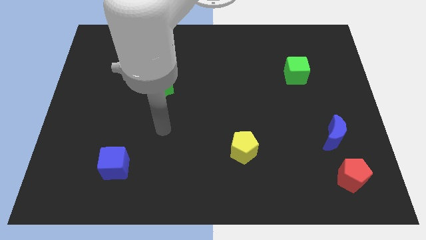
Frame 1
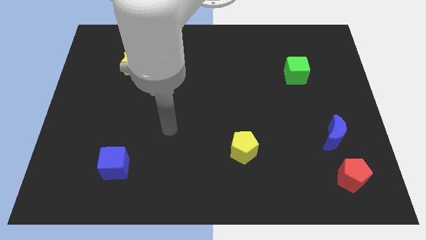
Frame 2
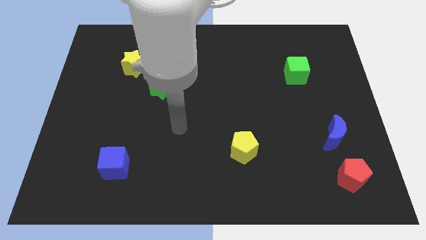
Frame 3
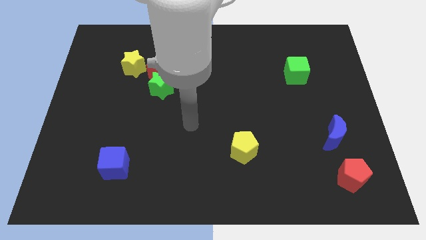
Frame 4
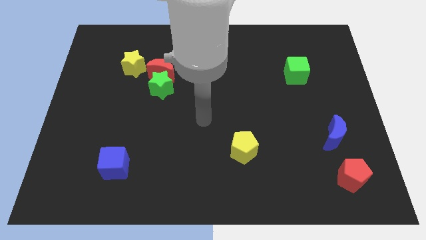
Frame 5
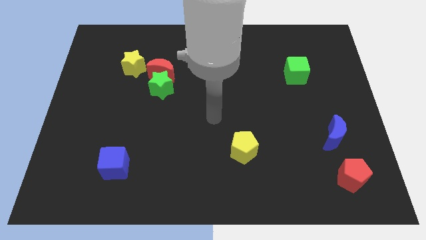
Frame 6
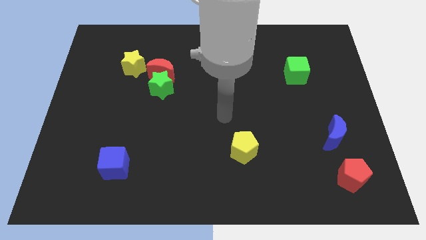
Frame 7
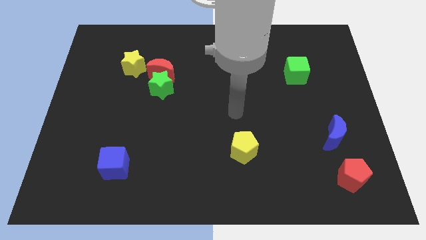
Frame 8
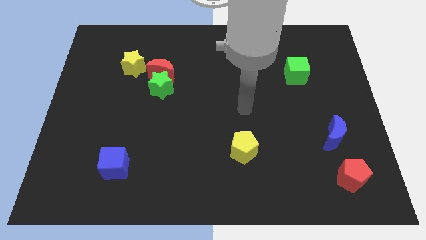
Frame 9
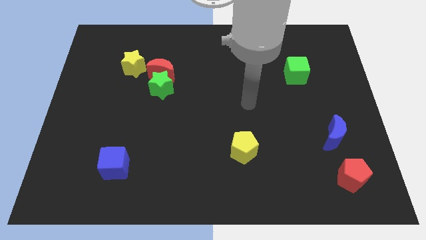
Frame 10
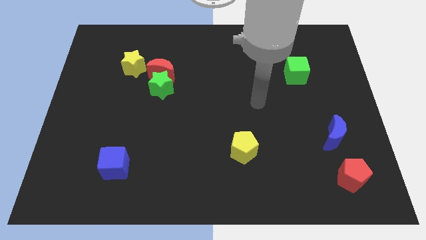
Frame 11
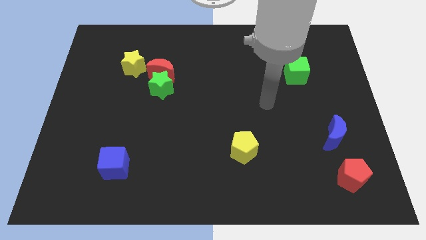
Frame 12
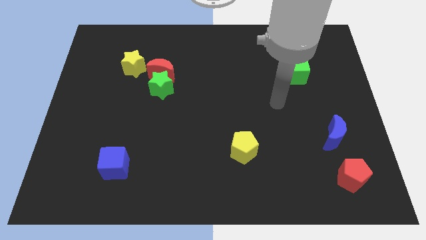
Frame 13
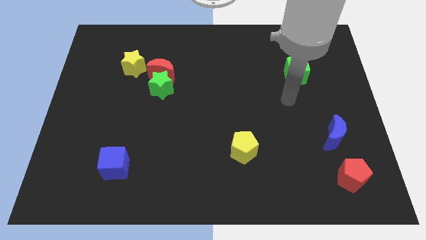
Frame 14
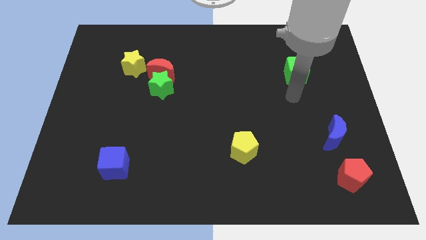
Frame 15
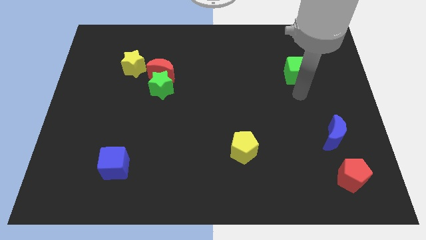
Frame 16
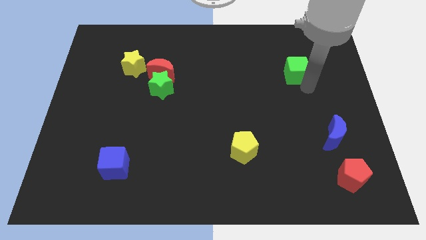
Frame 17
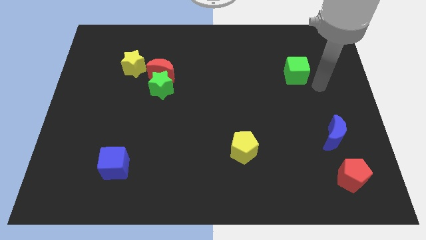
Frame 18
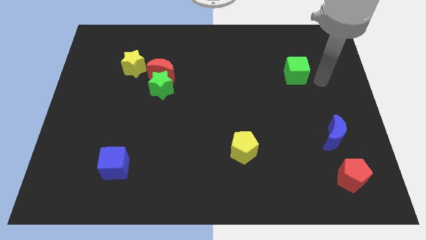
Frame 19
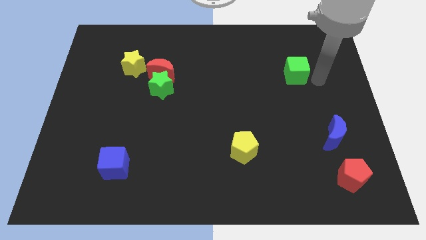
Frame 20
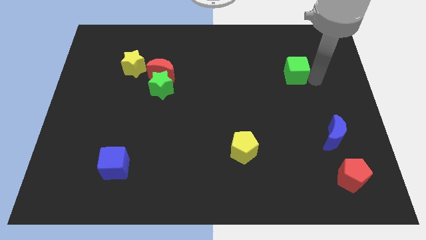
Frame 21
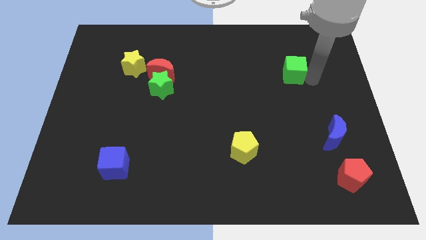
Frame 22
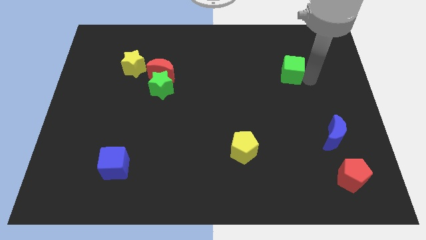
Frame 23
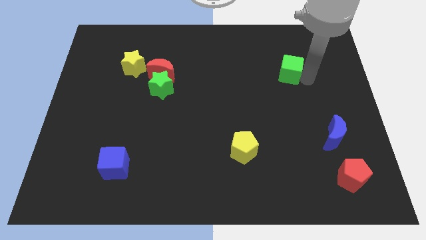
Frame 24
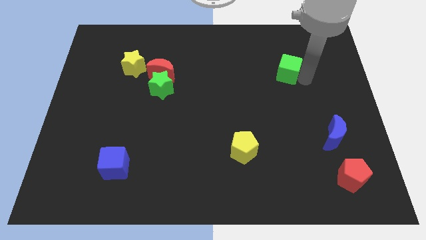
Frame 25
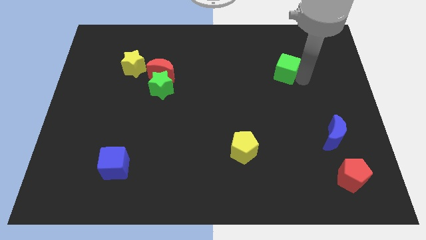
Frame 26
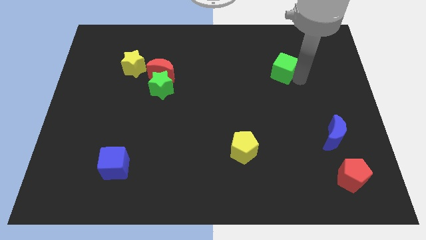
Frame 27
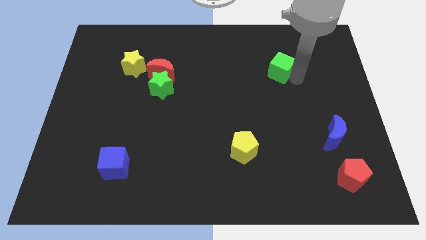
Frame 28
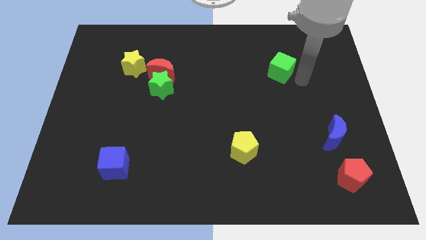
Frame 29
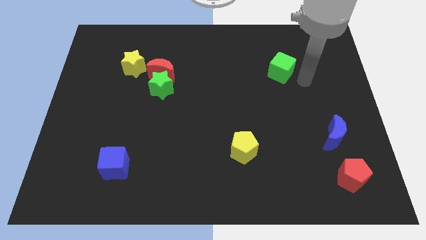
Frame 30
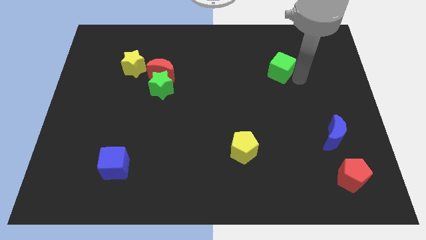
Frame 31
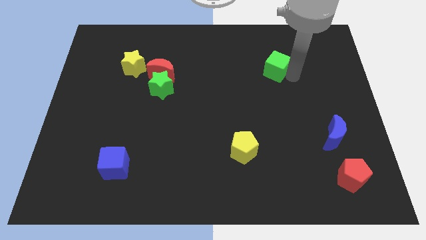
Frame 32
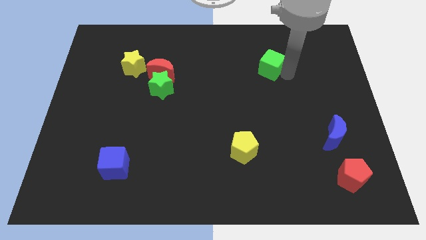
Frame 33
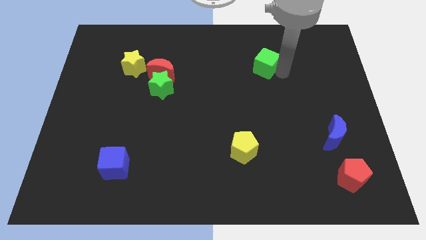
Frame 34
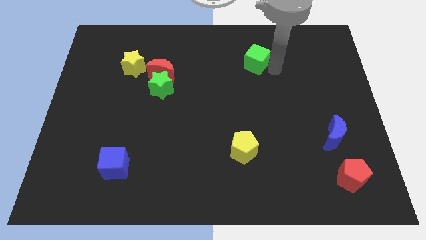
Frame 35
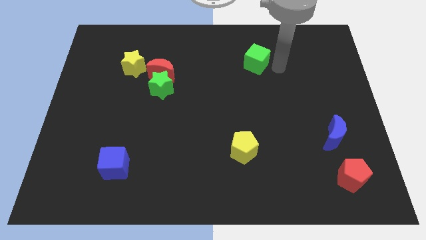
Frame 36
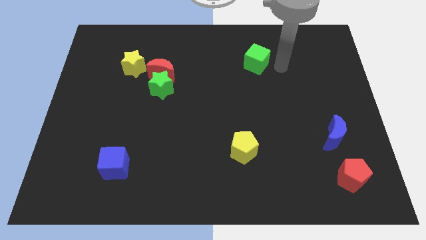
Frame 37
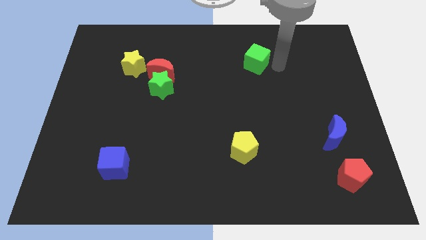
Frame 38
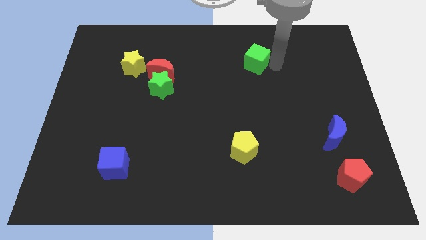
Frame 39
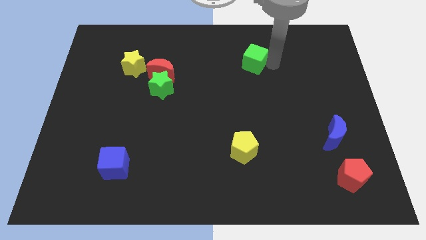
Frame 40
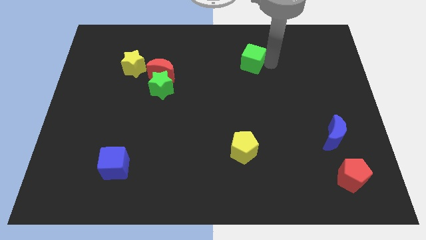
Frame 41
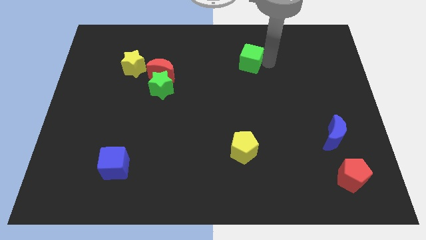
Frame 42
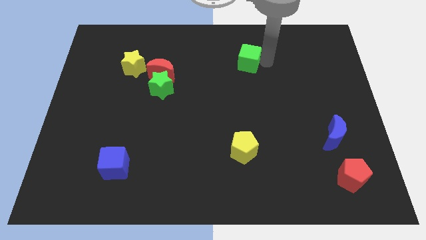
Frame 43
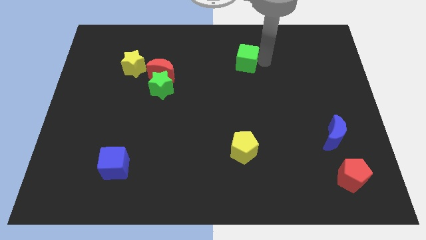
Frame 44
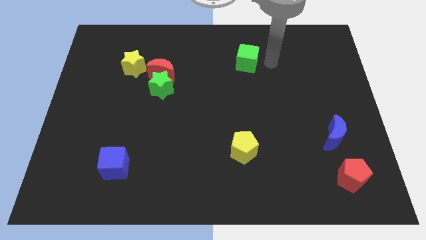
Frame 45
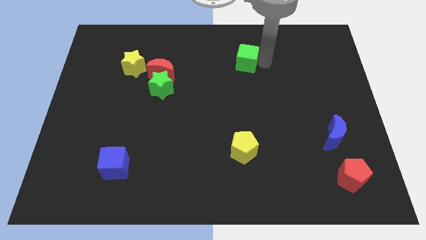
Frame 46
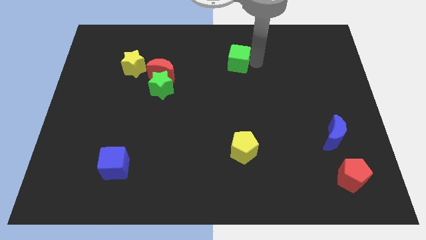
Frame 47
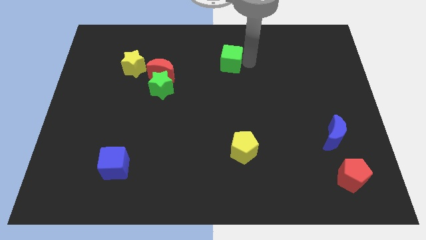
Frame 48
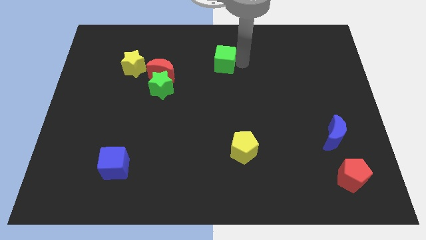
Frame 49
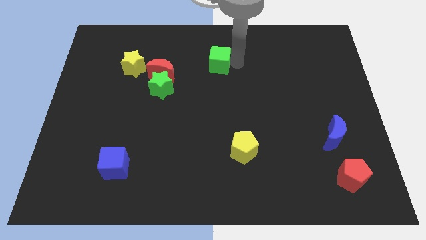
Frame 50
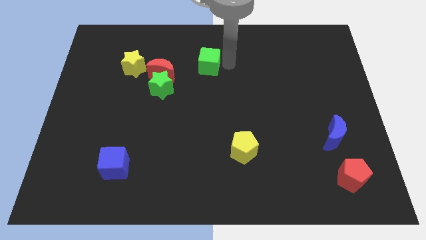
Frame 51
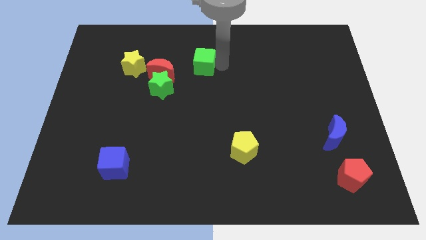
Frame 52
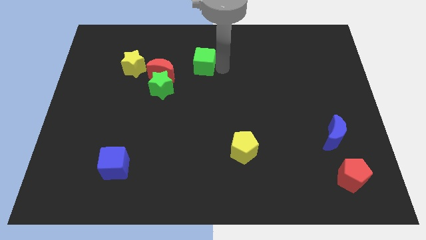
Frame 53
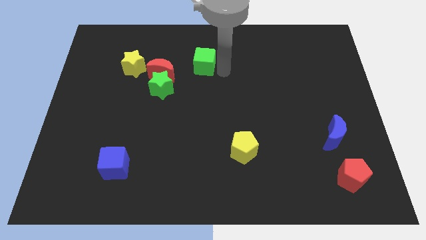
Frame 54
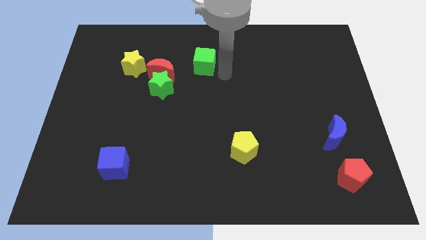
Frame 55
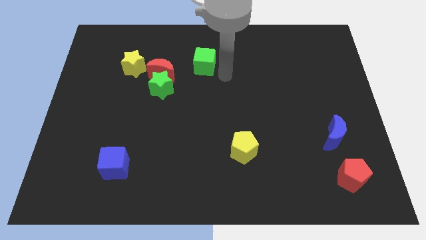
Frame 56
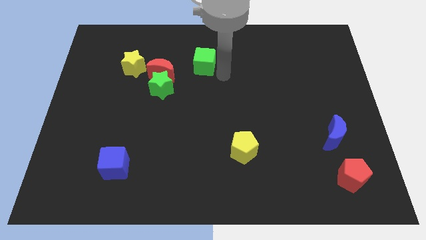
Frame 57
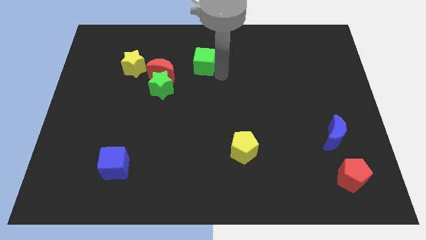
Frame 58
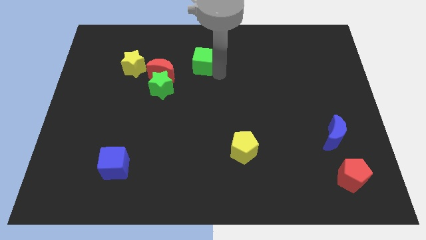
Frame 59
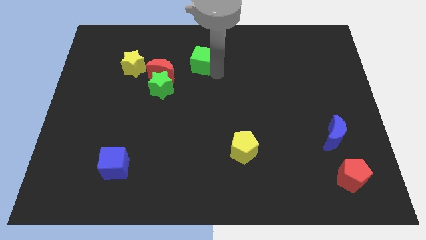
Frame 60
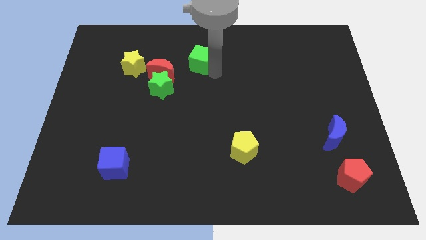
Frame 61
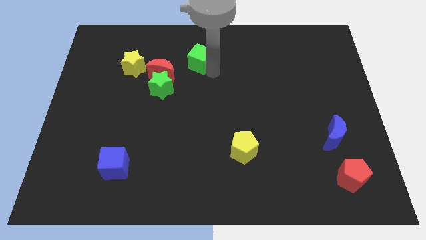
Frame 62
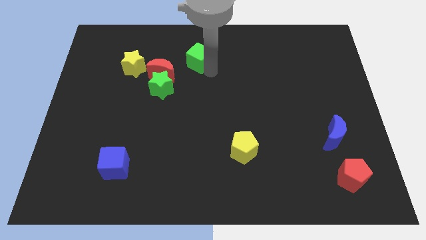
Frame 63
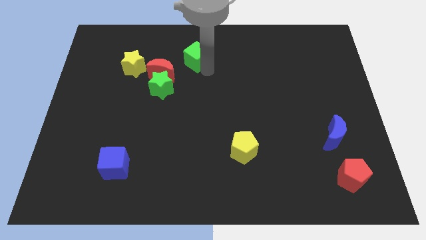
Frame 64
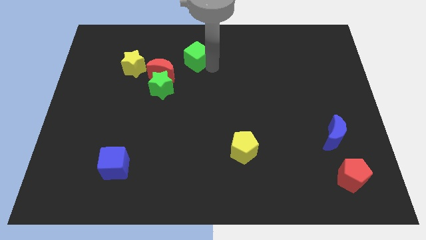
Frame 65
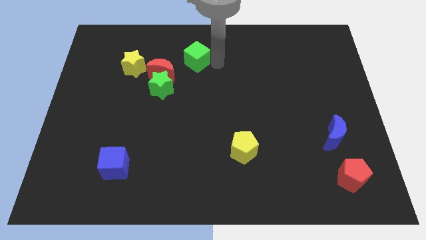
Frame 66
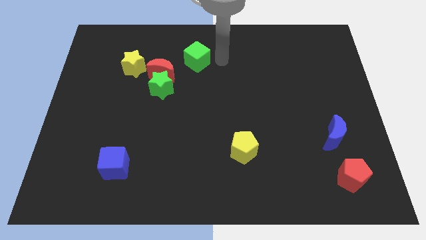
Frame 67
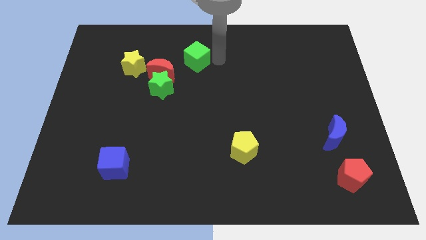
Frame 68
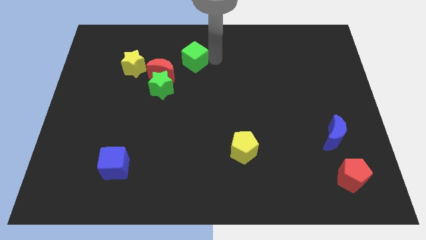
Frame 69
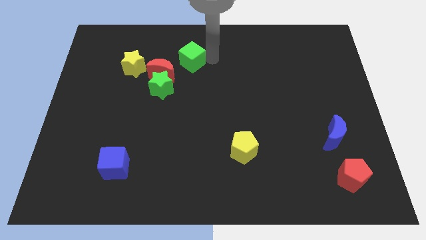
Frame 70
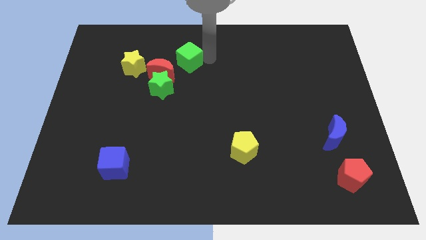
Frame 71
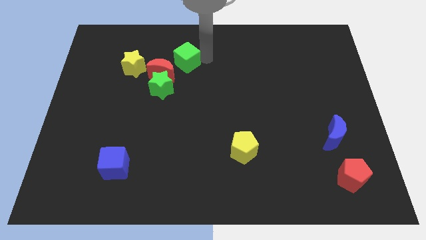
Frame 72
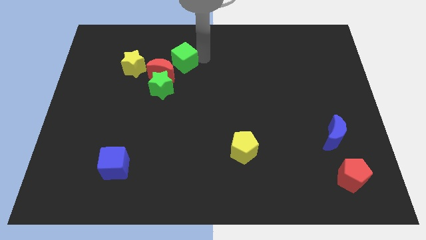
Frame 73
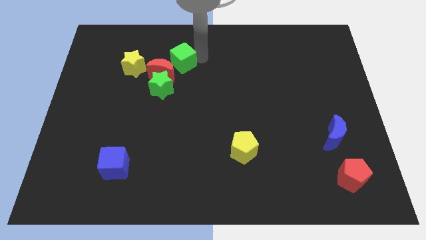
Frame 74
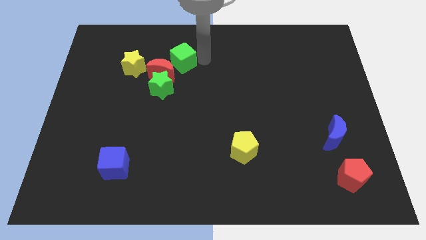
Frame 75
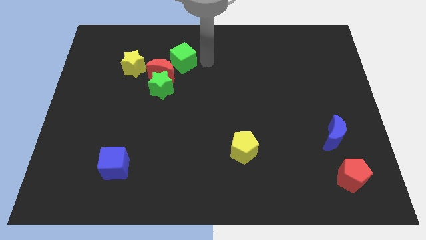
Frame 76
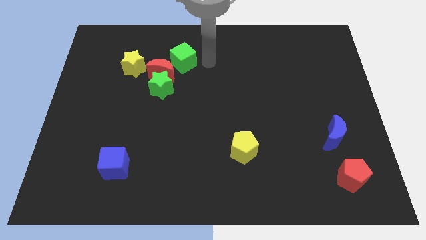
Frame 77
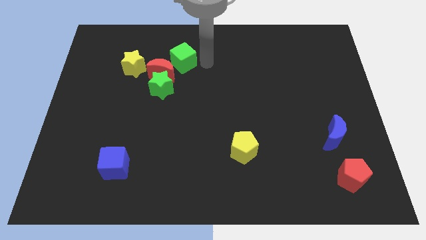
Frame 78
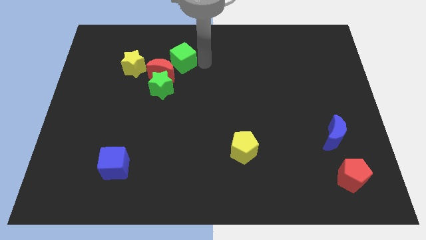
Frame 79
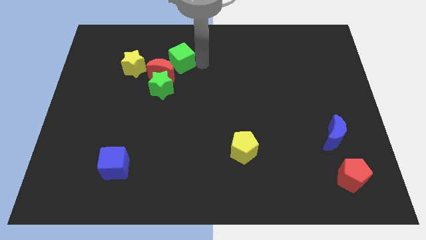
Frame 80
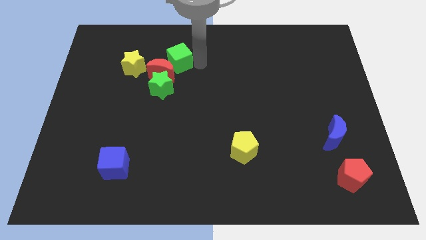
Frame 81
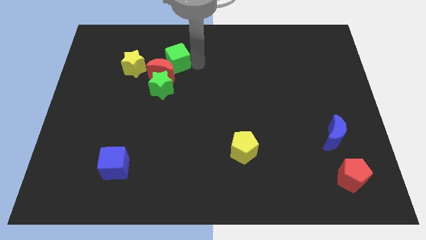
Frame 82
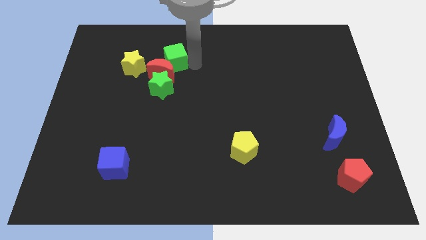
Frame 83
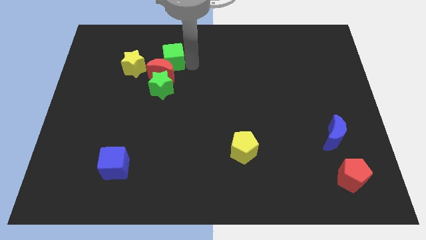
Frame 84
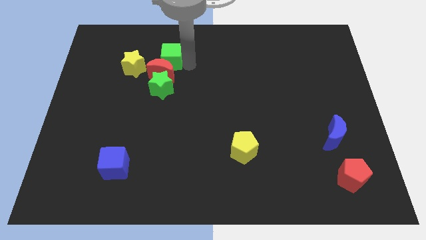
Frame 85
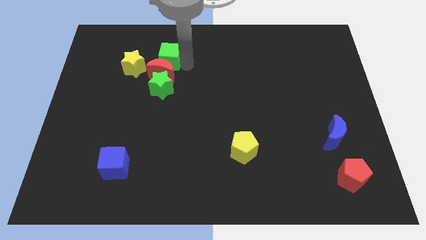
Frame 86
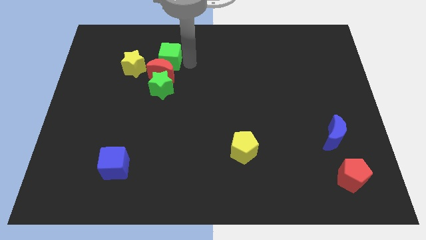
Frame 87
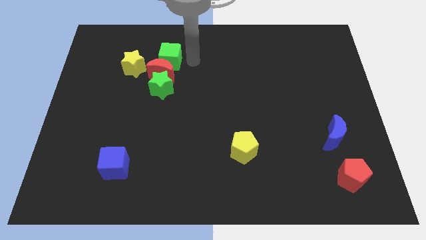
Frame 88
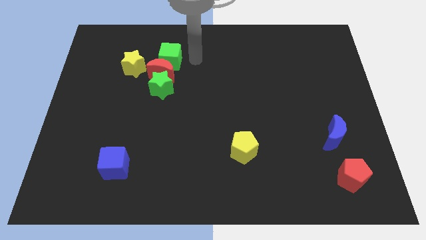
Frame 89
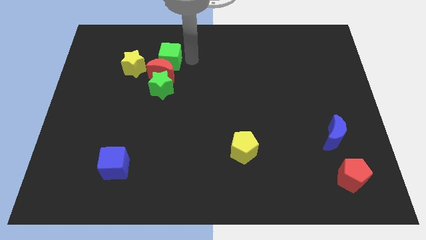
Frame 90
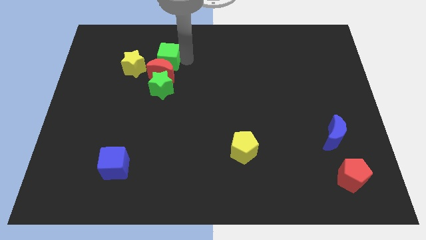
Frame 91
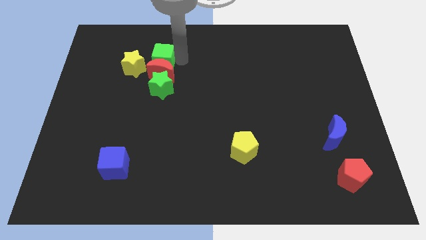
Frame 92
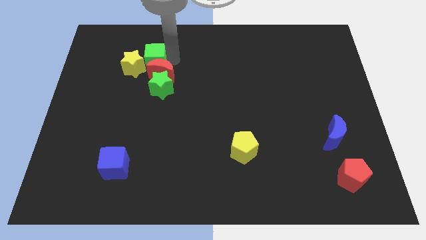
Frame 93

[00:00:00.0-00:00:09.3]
put the green cube next to the yellow star
